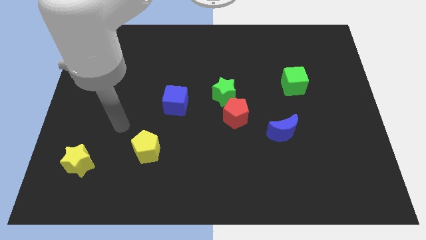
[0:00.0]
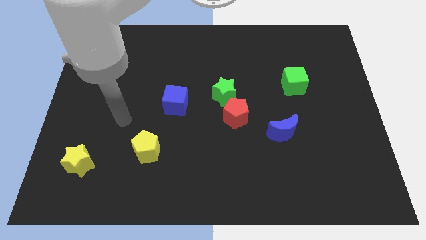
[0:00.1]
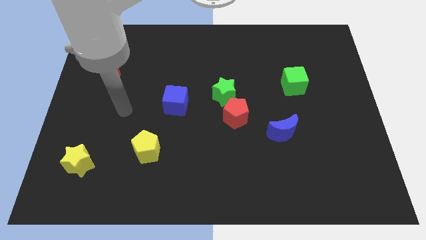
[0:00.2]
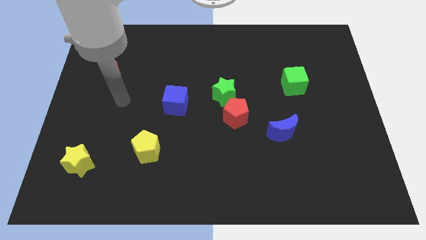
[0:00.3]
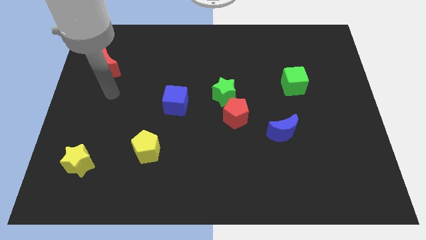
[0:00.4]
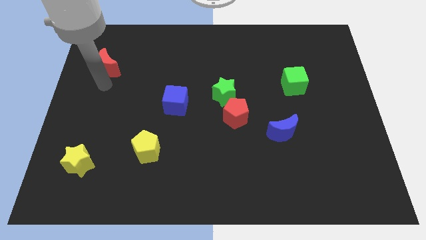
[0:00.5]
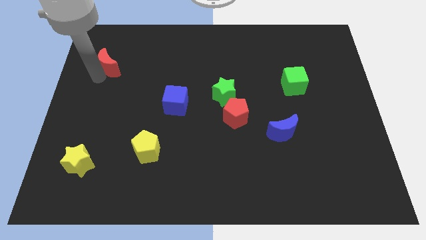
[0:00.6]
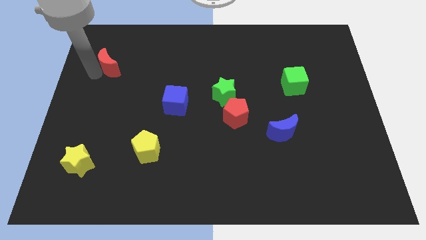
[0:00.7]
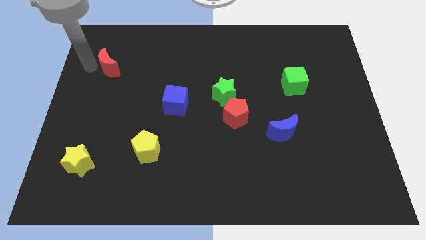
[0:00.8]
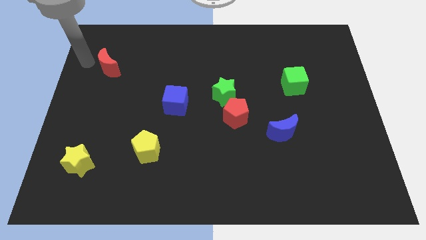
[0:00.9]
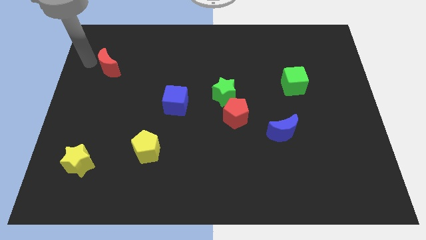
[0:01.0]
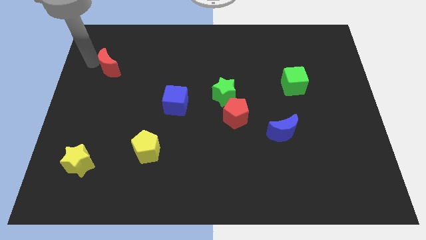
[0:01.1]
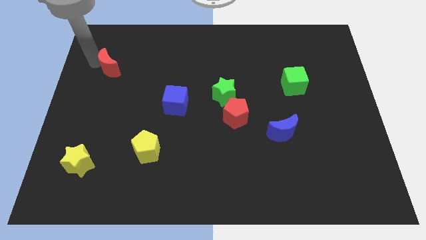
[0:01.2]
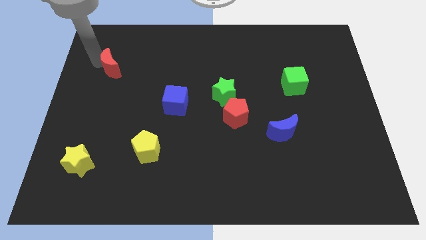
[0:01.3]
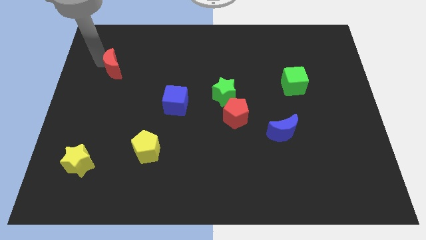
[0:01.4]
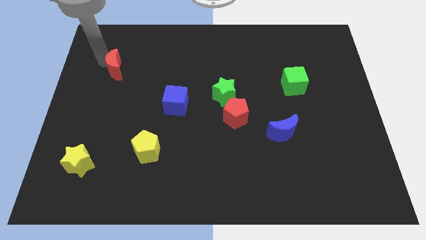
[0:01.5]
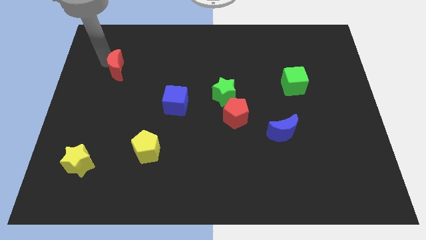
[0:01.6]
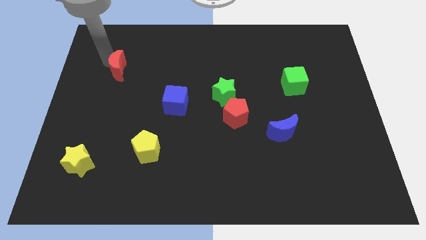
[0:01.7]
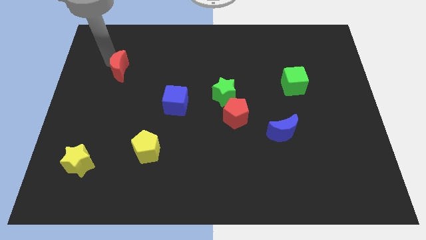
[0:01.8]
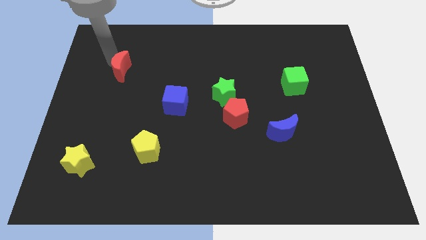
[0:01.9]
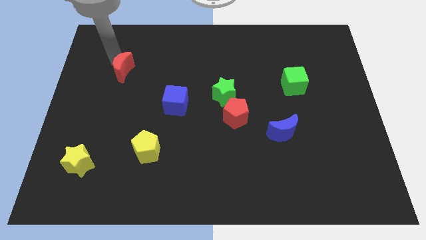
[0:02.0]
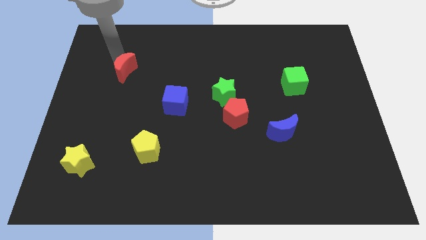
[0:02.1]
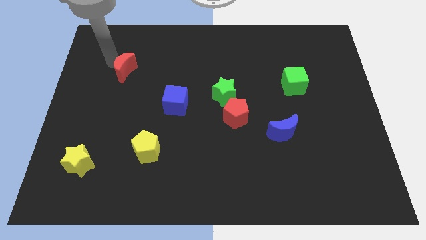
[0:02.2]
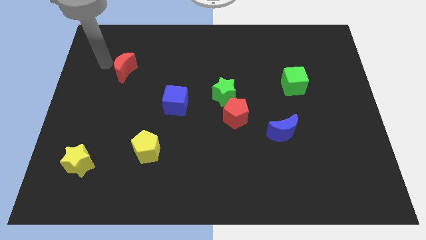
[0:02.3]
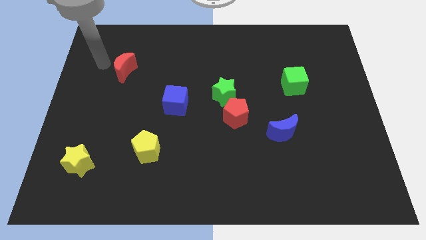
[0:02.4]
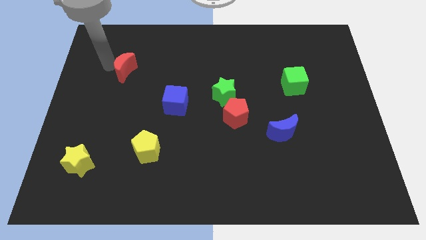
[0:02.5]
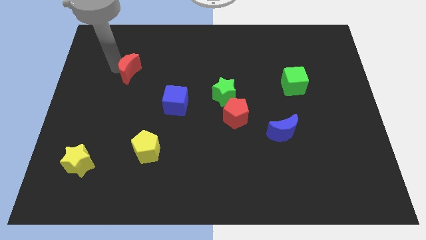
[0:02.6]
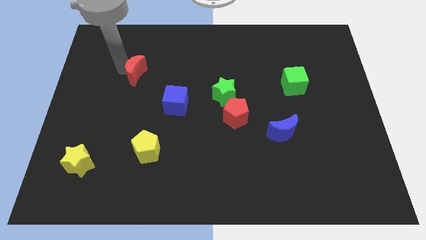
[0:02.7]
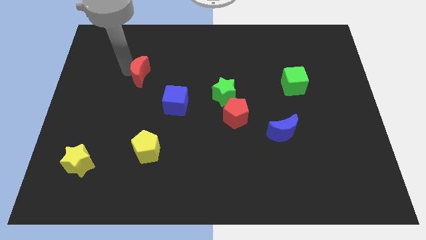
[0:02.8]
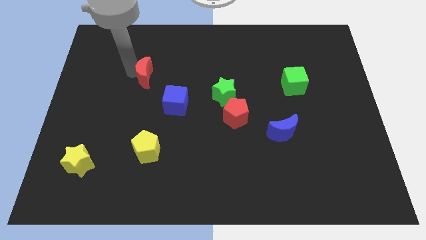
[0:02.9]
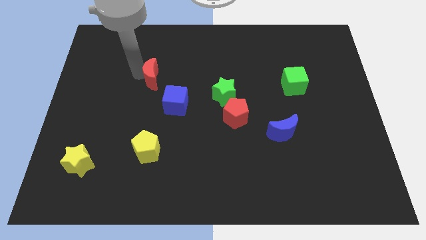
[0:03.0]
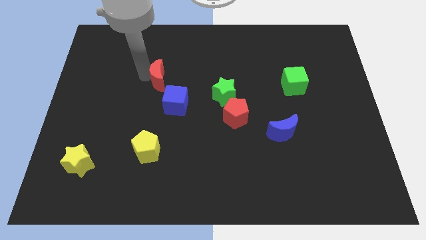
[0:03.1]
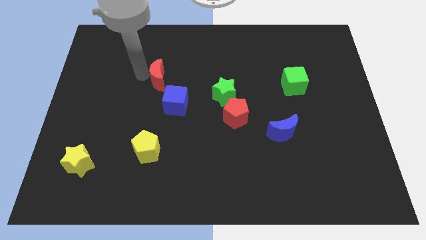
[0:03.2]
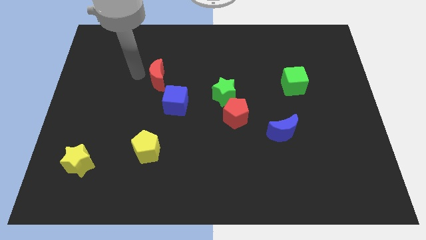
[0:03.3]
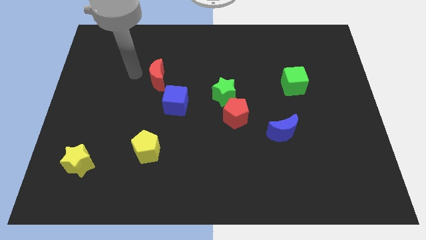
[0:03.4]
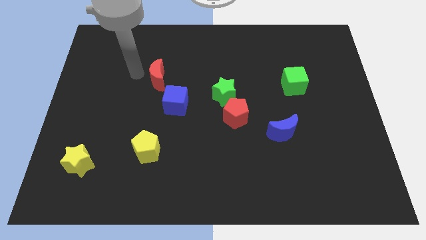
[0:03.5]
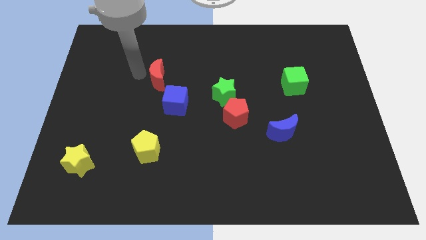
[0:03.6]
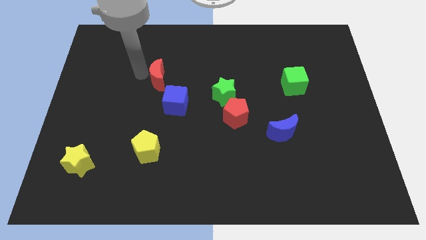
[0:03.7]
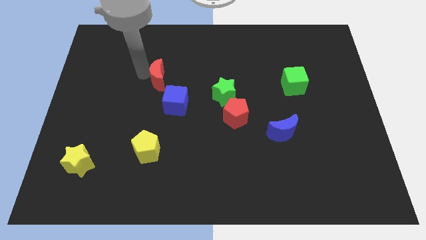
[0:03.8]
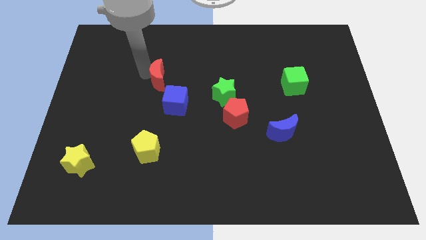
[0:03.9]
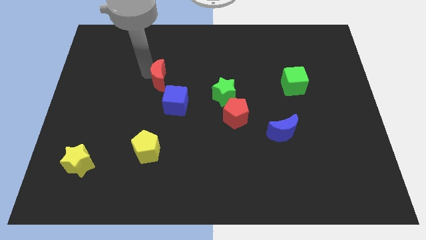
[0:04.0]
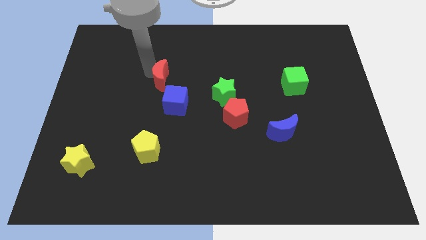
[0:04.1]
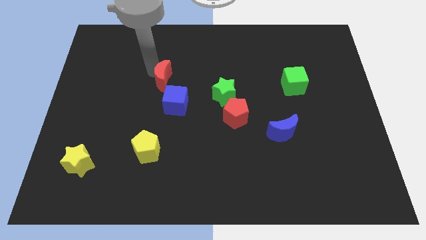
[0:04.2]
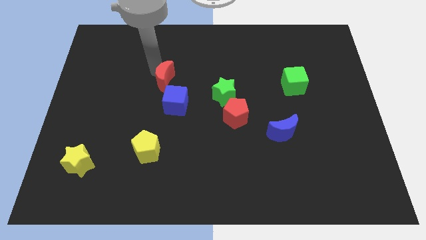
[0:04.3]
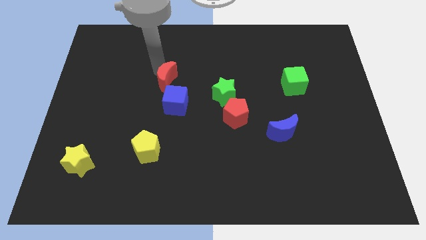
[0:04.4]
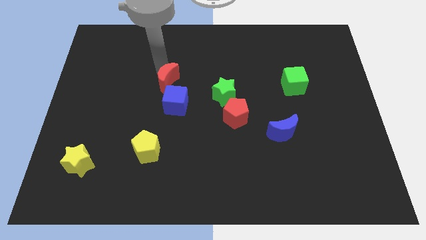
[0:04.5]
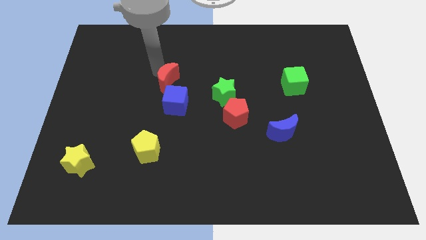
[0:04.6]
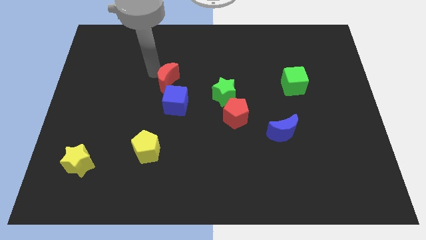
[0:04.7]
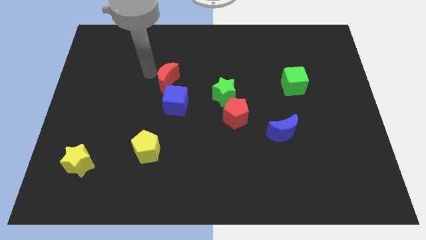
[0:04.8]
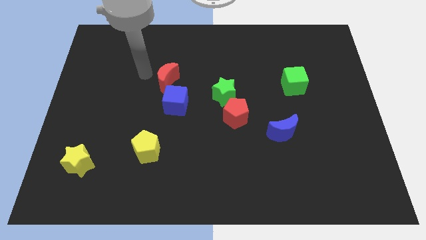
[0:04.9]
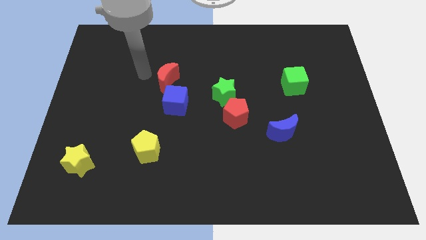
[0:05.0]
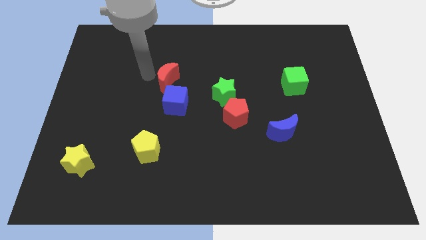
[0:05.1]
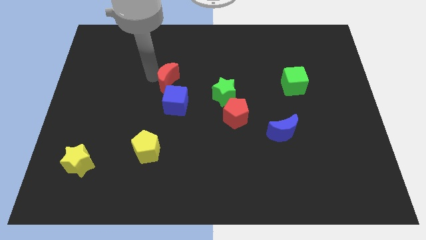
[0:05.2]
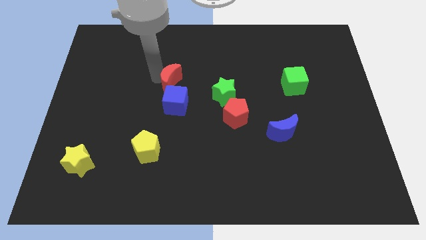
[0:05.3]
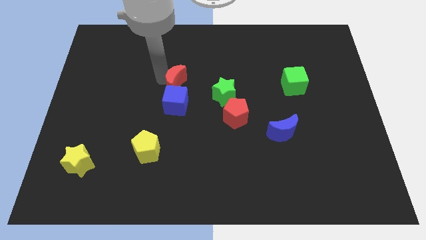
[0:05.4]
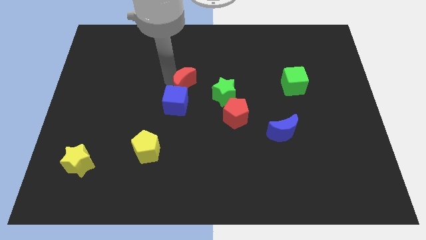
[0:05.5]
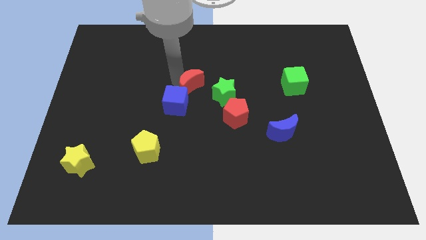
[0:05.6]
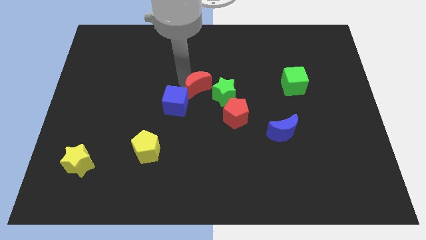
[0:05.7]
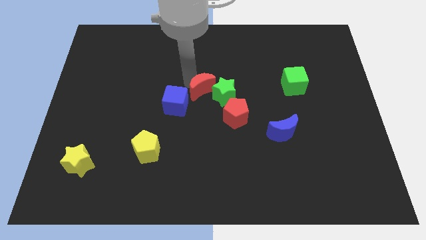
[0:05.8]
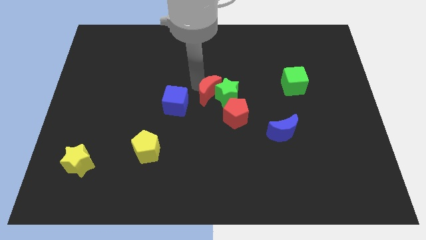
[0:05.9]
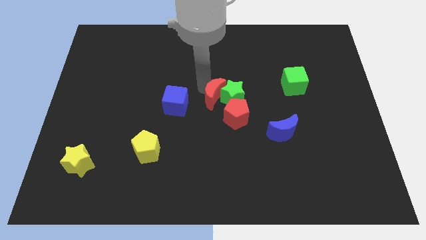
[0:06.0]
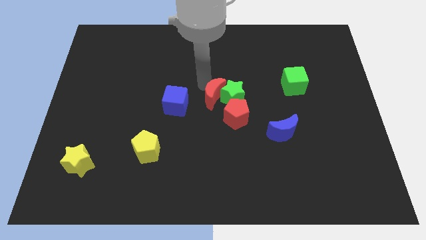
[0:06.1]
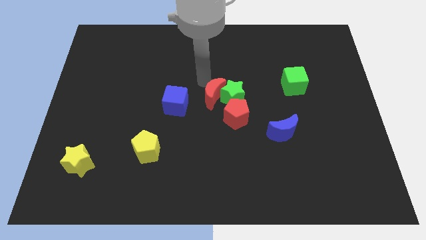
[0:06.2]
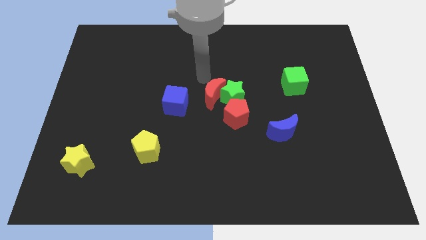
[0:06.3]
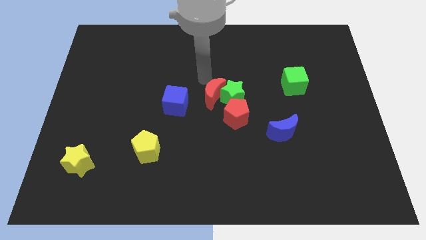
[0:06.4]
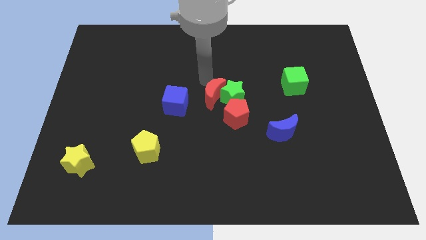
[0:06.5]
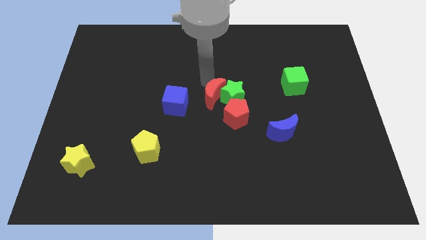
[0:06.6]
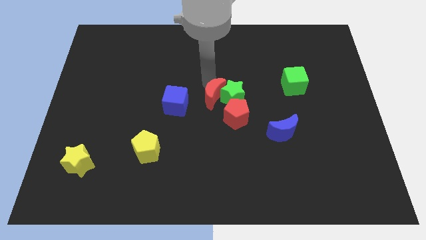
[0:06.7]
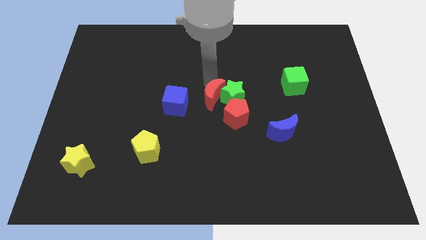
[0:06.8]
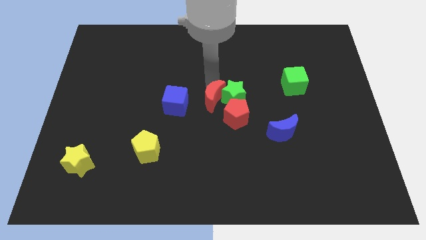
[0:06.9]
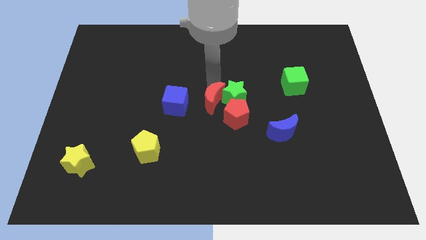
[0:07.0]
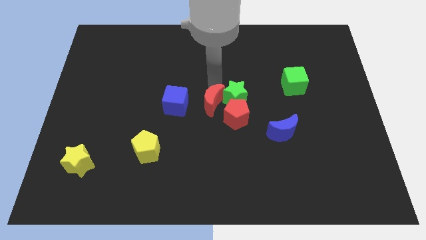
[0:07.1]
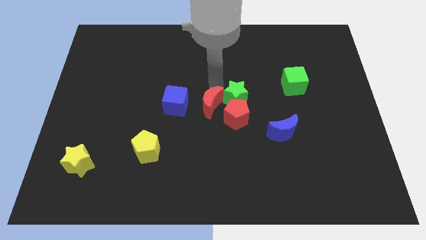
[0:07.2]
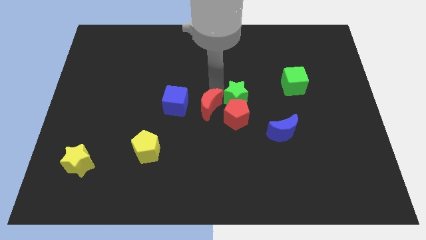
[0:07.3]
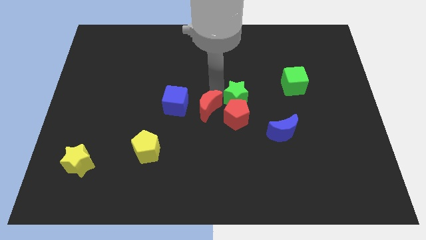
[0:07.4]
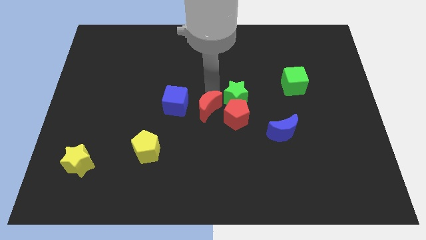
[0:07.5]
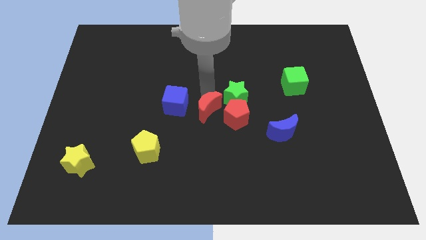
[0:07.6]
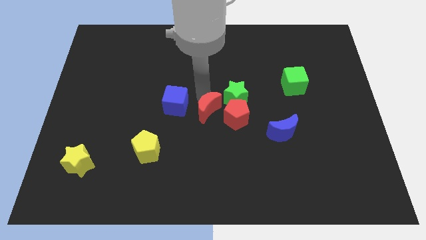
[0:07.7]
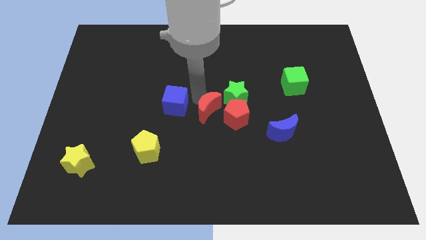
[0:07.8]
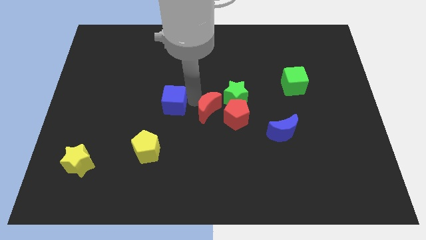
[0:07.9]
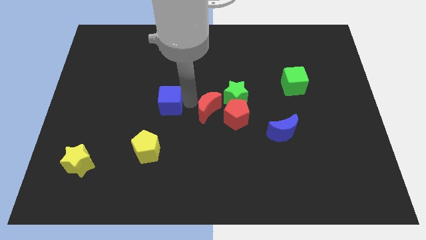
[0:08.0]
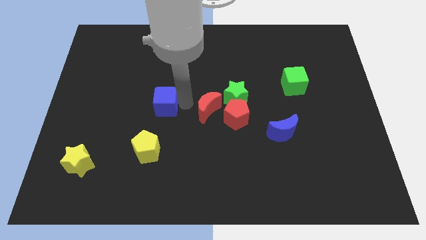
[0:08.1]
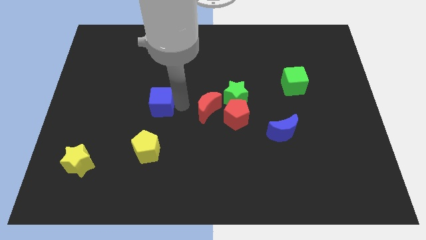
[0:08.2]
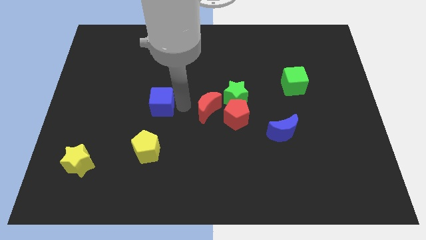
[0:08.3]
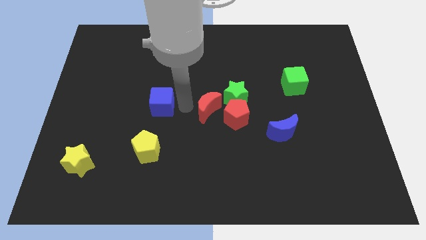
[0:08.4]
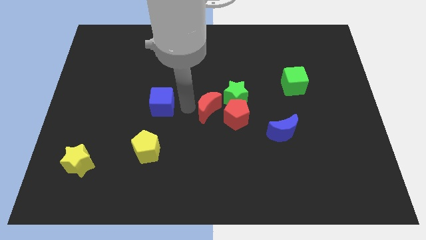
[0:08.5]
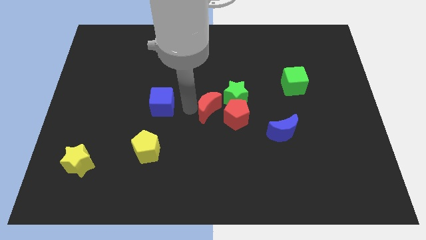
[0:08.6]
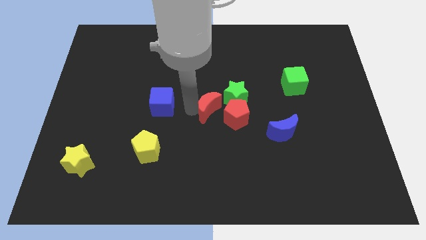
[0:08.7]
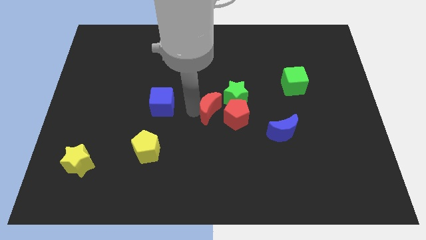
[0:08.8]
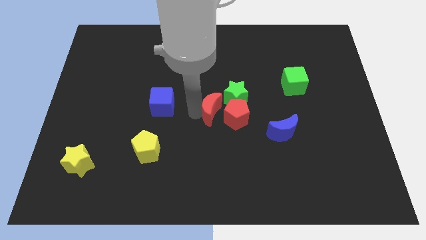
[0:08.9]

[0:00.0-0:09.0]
move the red moon next to the red pentagon
